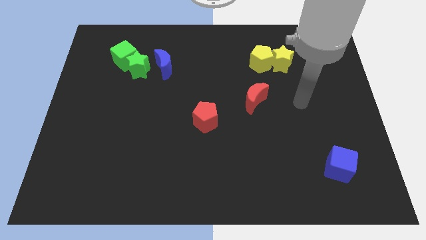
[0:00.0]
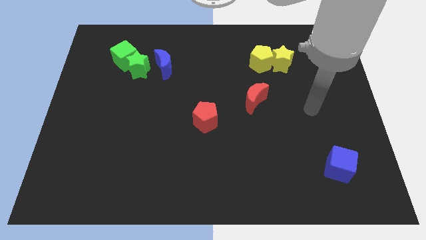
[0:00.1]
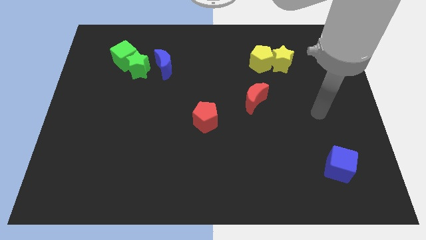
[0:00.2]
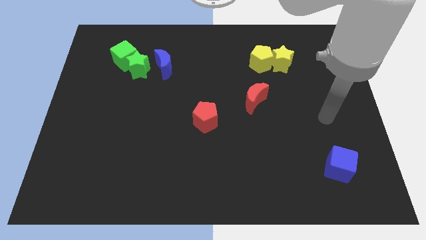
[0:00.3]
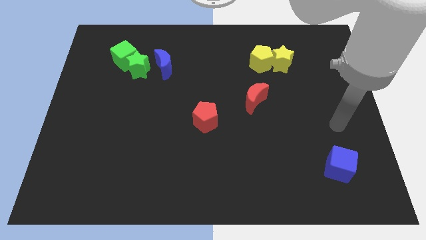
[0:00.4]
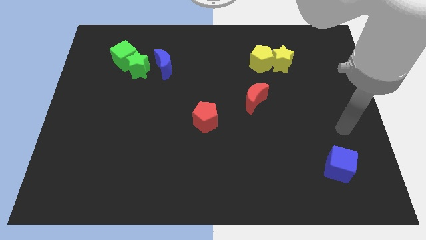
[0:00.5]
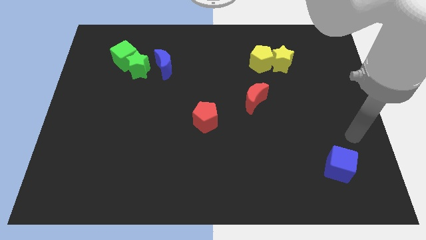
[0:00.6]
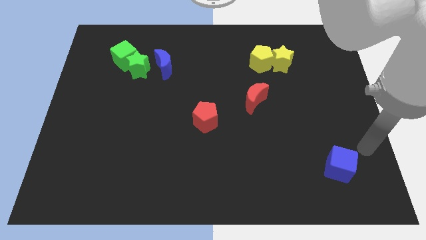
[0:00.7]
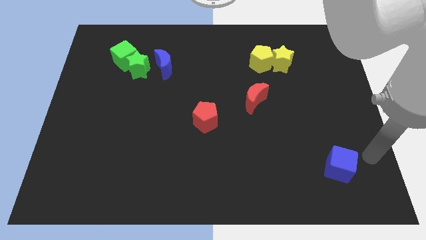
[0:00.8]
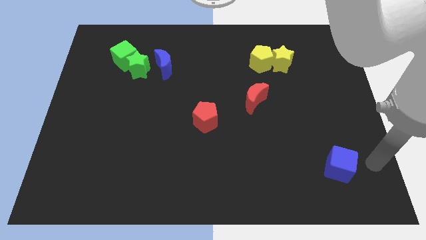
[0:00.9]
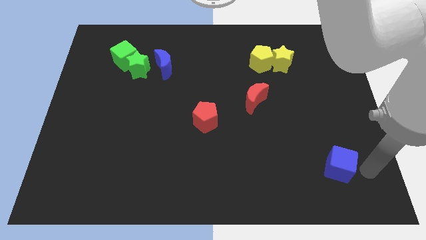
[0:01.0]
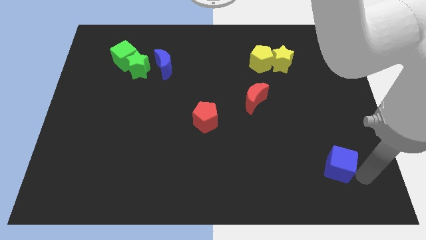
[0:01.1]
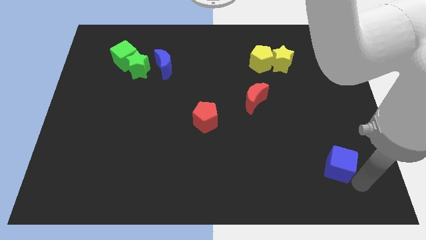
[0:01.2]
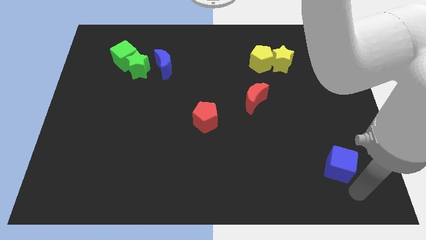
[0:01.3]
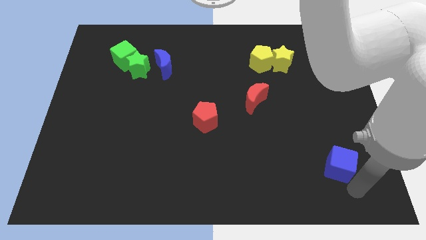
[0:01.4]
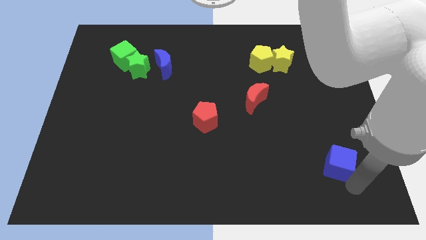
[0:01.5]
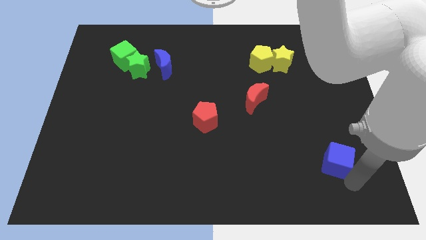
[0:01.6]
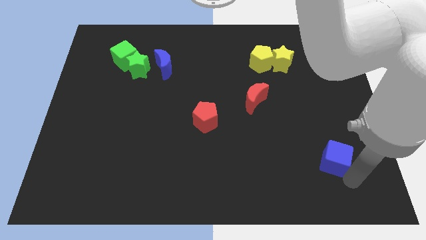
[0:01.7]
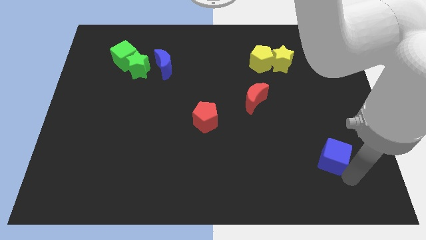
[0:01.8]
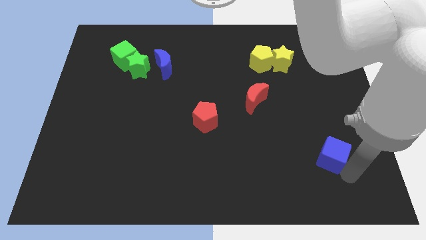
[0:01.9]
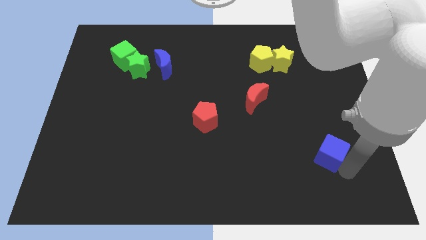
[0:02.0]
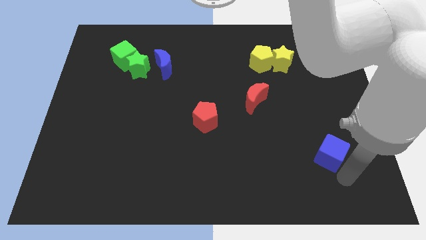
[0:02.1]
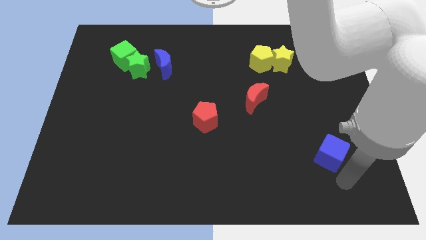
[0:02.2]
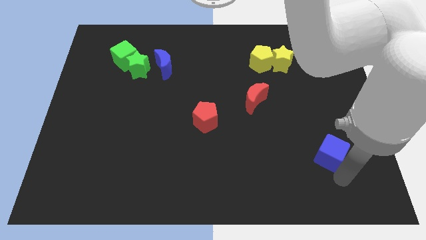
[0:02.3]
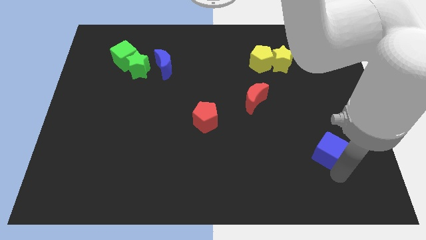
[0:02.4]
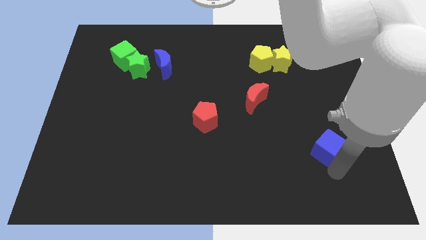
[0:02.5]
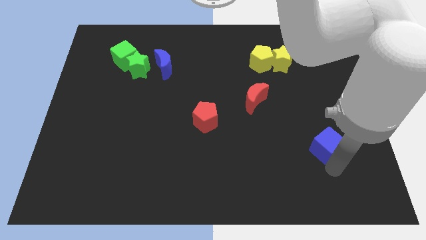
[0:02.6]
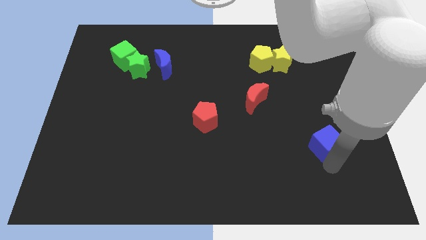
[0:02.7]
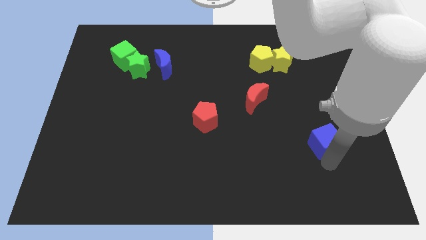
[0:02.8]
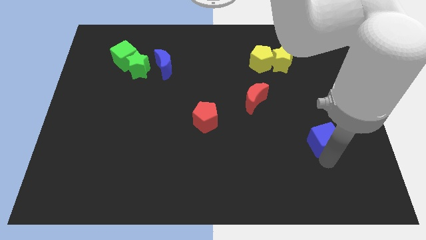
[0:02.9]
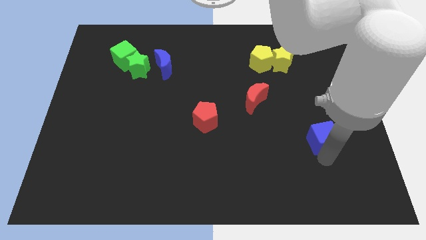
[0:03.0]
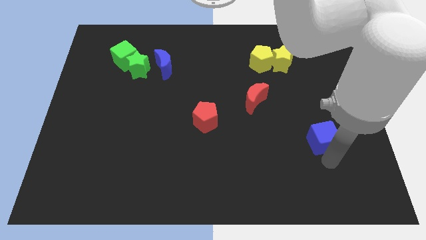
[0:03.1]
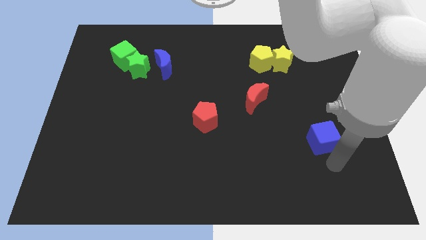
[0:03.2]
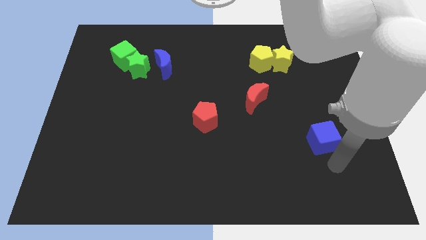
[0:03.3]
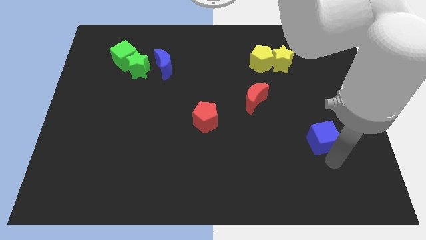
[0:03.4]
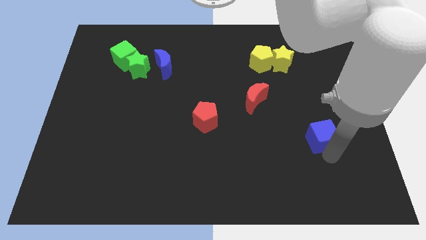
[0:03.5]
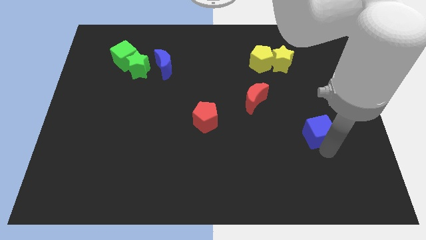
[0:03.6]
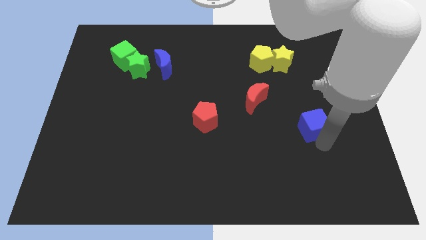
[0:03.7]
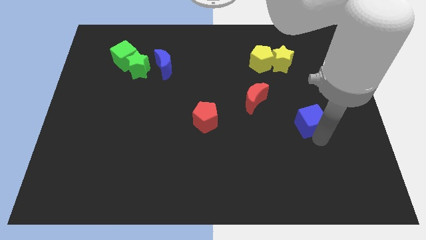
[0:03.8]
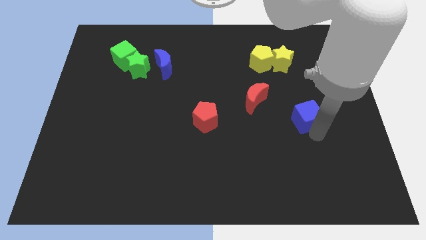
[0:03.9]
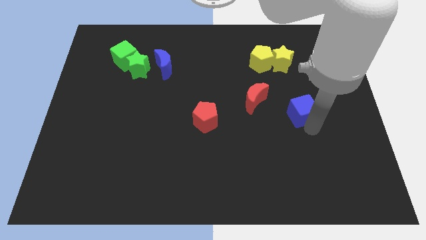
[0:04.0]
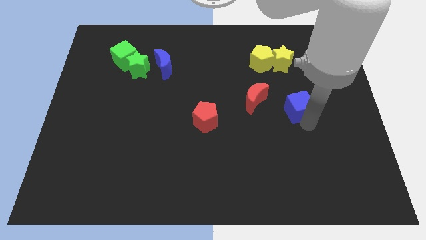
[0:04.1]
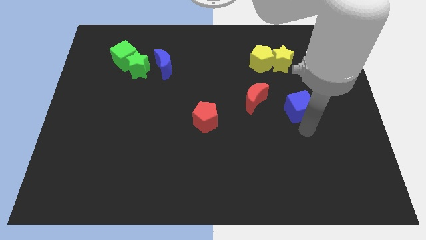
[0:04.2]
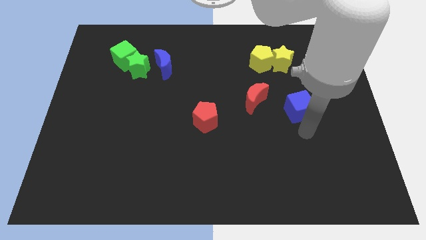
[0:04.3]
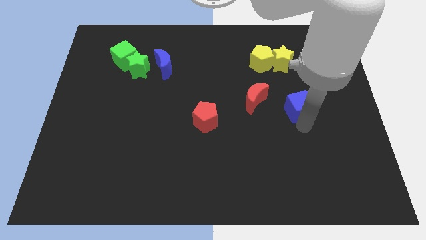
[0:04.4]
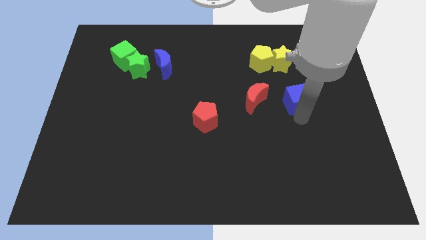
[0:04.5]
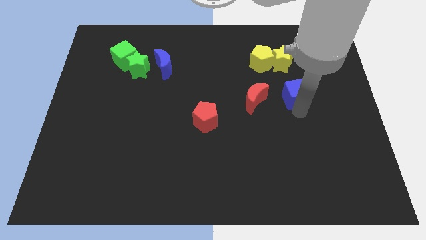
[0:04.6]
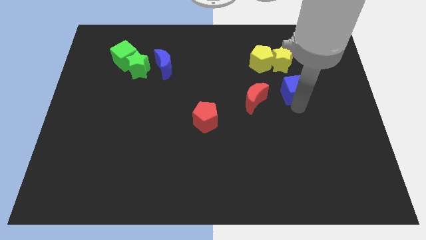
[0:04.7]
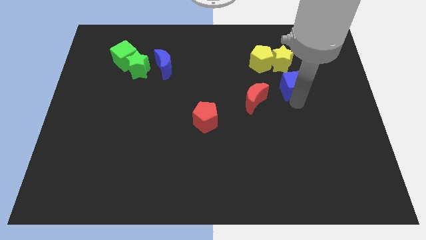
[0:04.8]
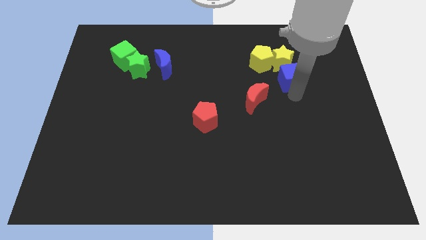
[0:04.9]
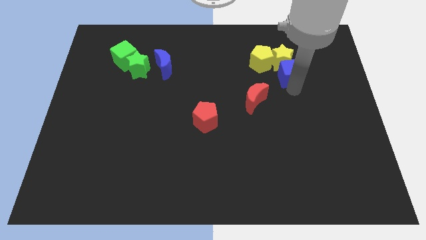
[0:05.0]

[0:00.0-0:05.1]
put the blue cube close to the yellow star

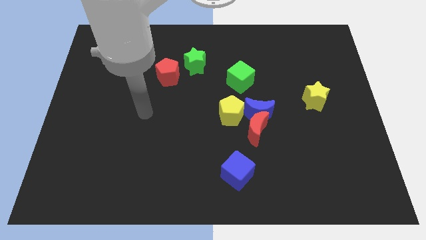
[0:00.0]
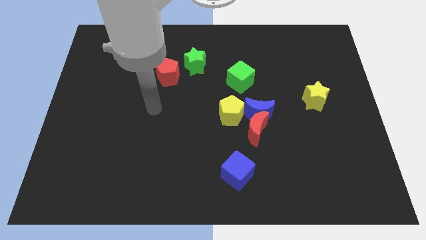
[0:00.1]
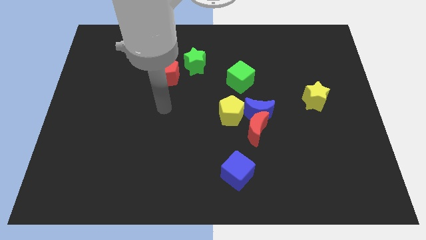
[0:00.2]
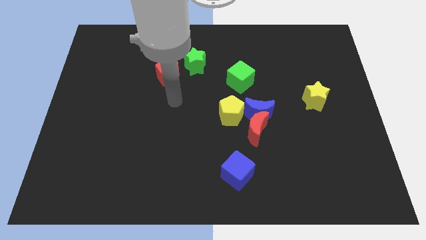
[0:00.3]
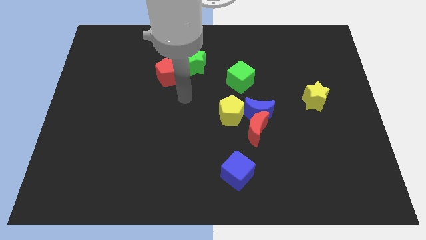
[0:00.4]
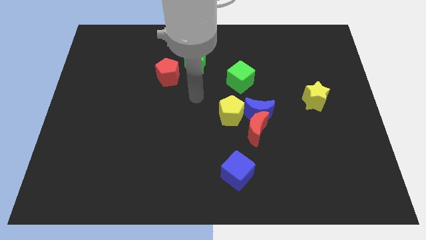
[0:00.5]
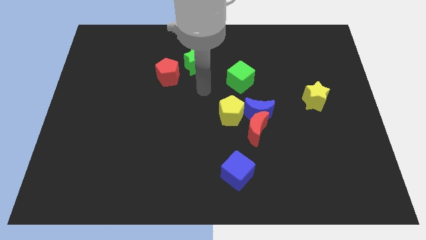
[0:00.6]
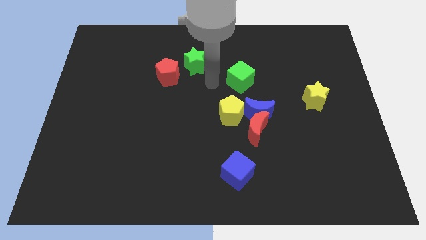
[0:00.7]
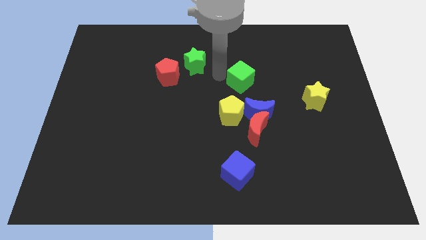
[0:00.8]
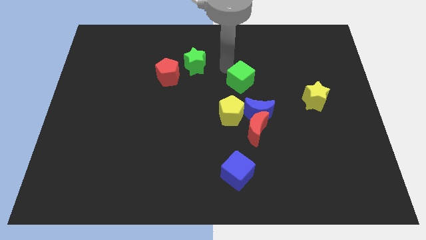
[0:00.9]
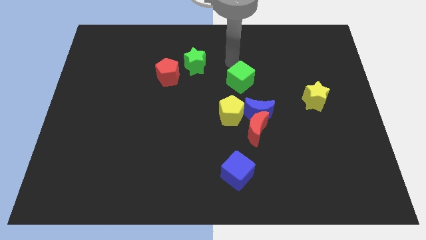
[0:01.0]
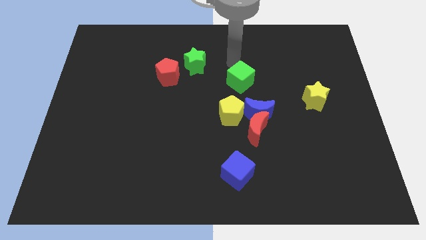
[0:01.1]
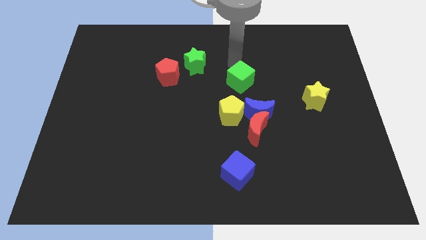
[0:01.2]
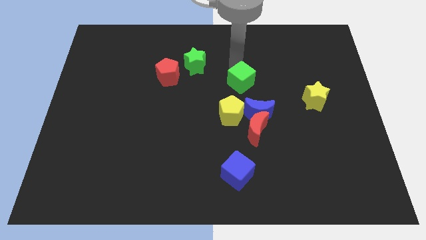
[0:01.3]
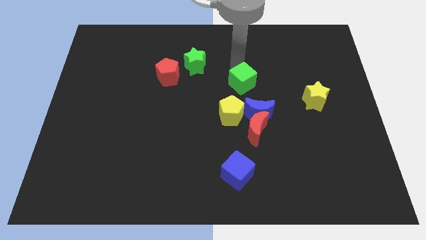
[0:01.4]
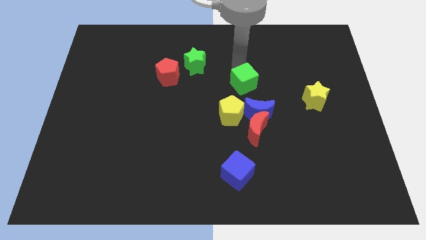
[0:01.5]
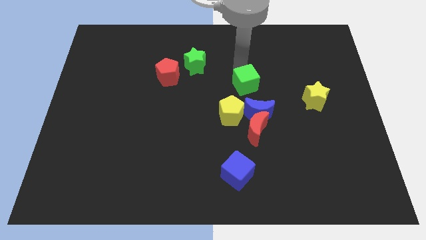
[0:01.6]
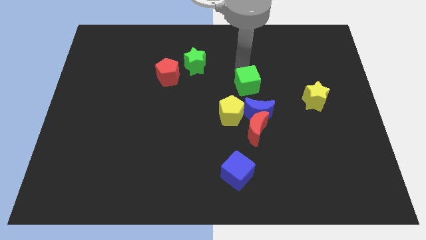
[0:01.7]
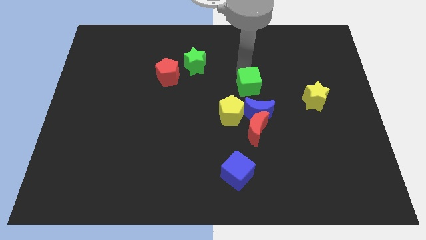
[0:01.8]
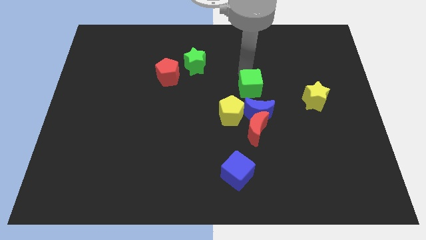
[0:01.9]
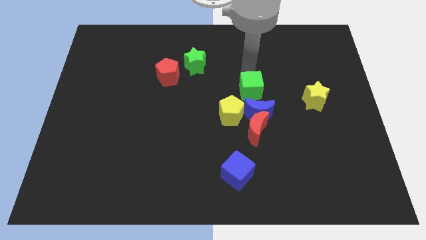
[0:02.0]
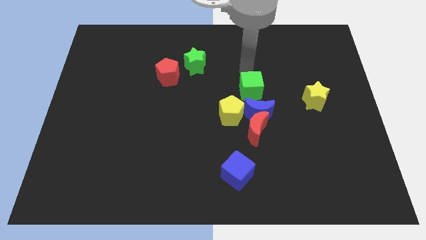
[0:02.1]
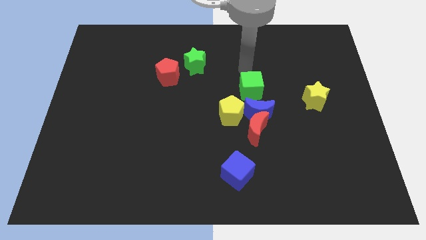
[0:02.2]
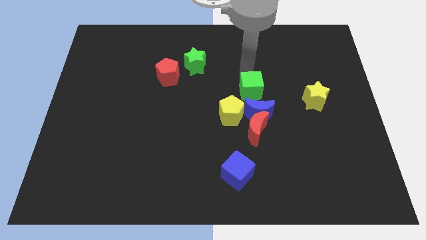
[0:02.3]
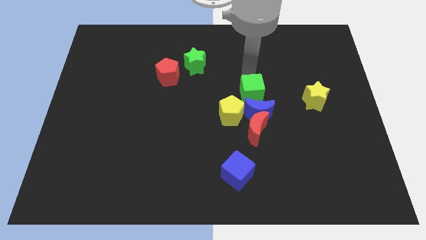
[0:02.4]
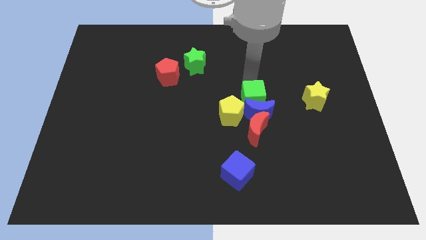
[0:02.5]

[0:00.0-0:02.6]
push the green cube towards the blue moon

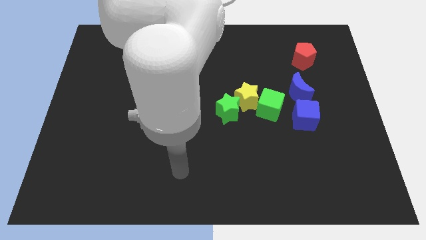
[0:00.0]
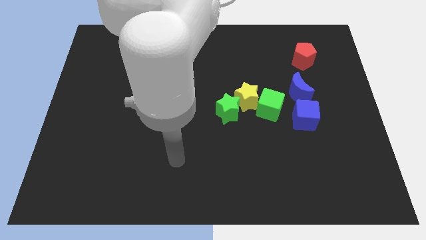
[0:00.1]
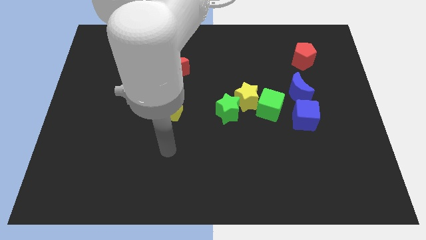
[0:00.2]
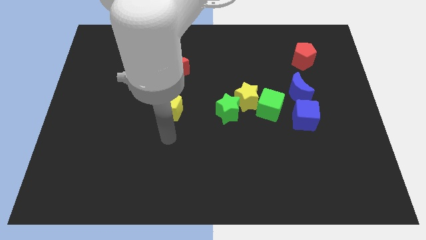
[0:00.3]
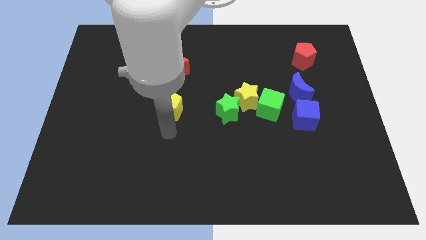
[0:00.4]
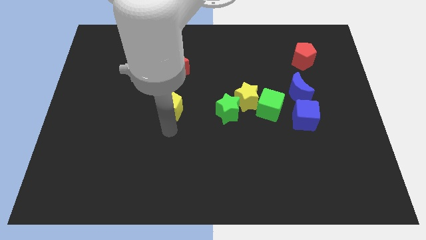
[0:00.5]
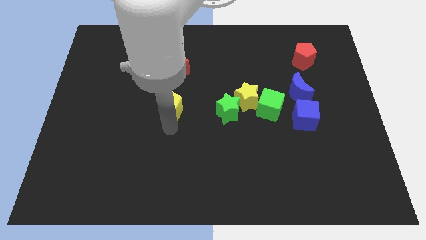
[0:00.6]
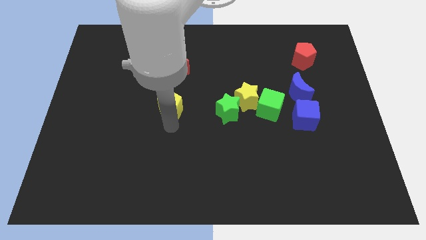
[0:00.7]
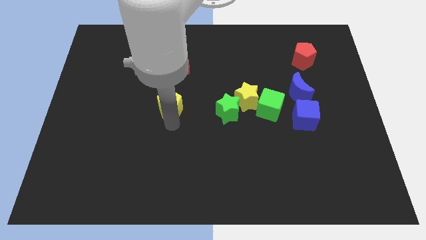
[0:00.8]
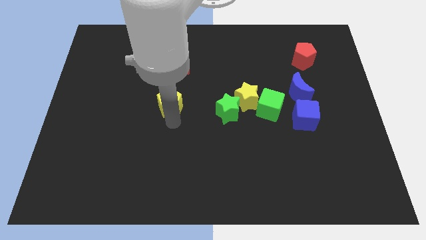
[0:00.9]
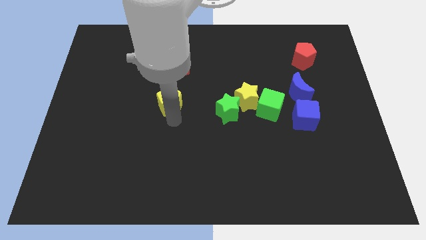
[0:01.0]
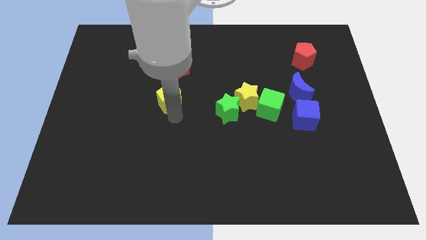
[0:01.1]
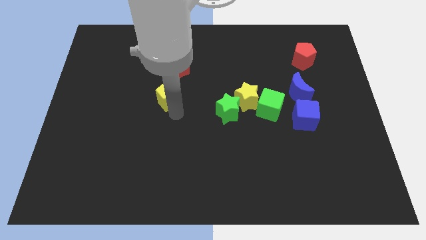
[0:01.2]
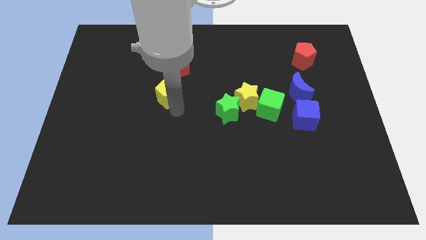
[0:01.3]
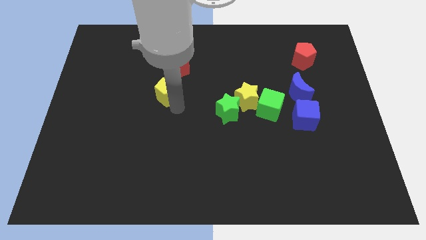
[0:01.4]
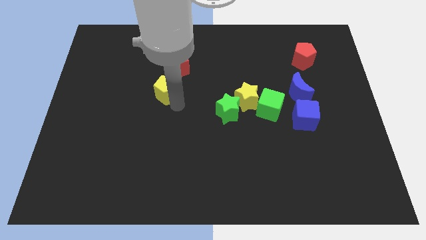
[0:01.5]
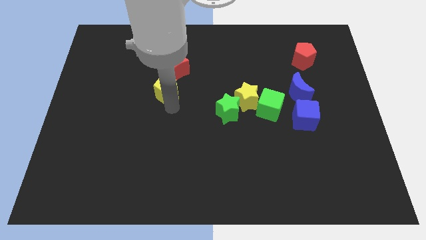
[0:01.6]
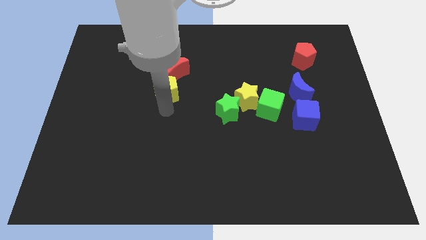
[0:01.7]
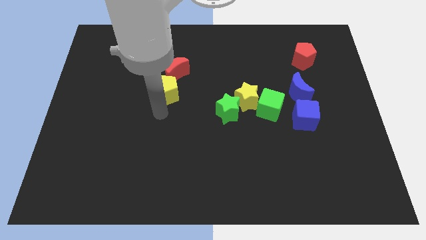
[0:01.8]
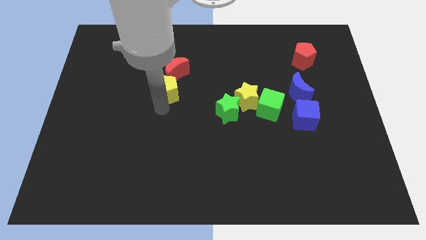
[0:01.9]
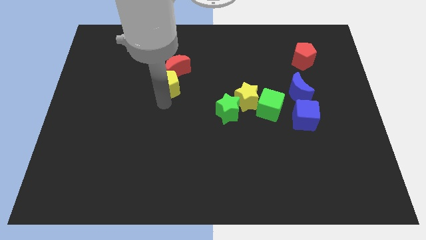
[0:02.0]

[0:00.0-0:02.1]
push the yellow pentagon towards the red moon
